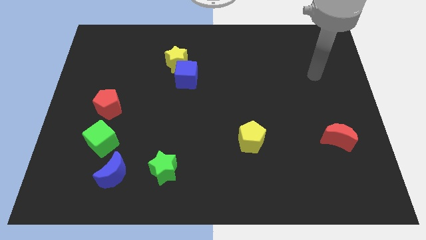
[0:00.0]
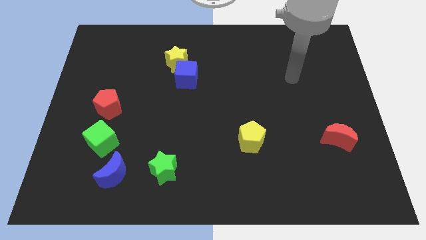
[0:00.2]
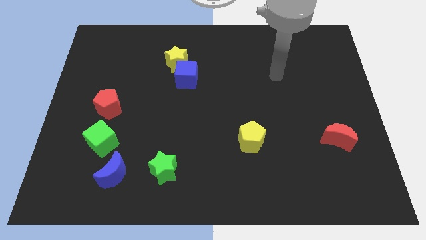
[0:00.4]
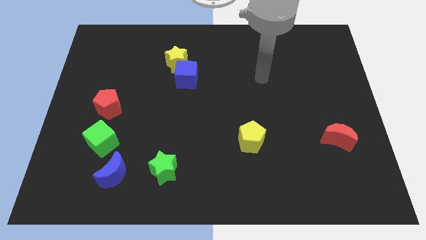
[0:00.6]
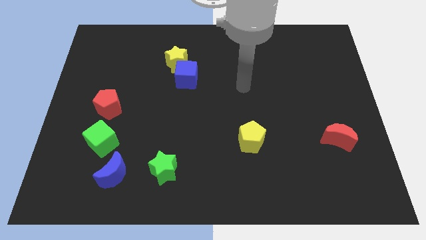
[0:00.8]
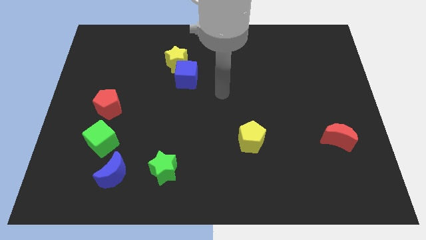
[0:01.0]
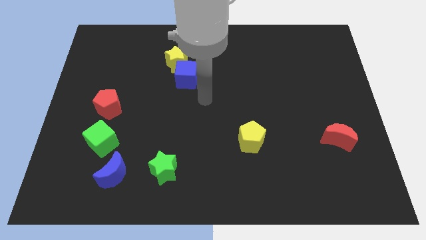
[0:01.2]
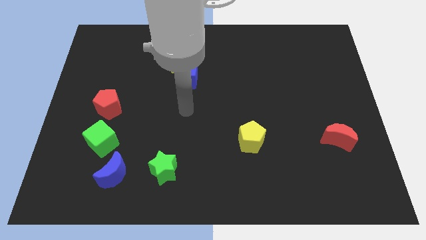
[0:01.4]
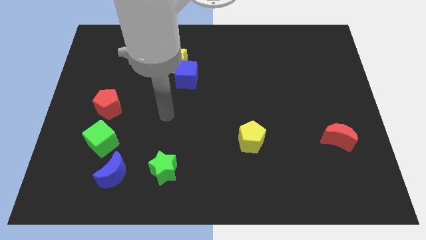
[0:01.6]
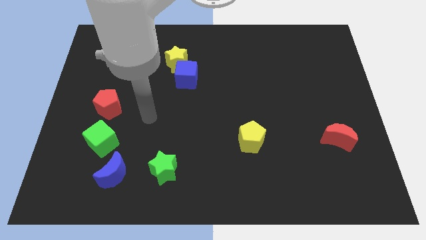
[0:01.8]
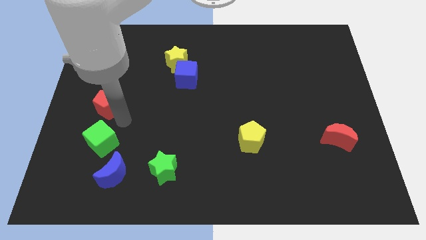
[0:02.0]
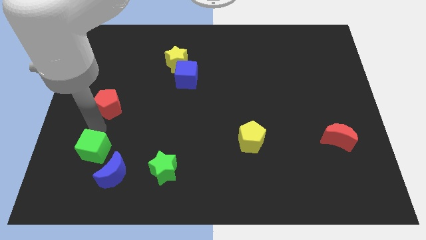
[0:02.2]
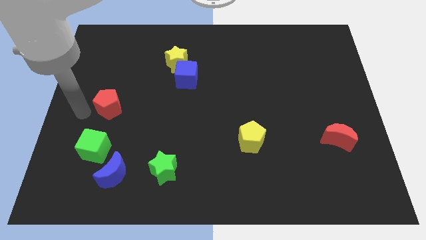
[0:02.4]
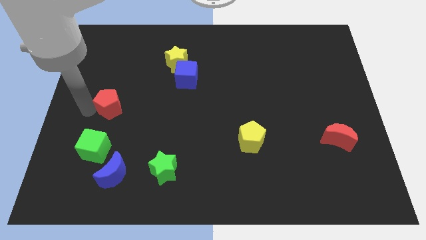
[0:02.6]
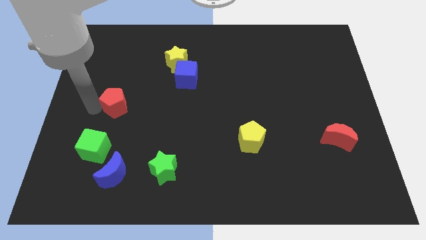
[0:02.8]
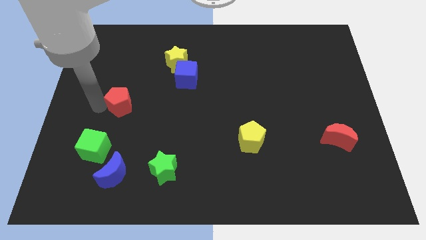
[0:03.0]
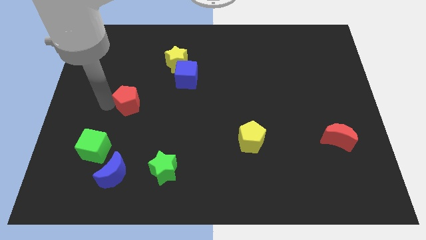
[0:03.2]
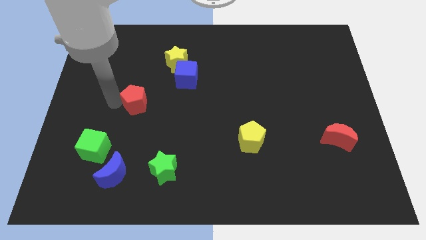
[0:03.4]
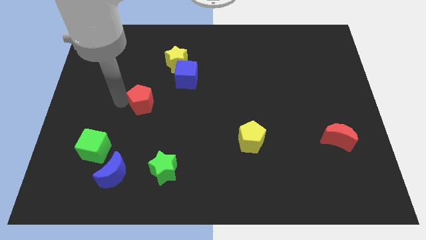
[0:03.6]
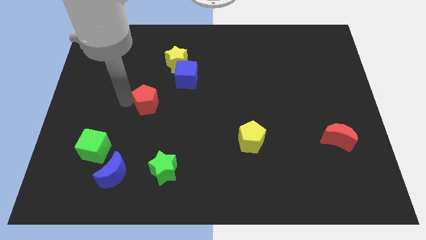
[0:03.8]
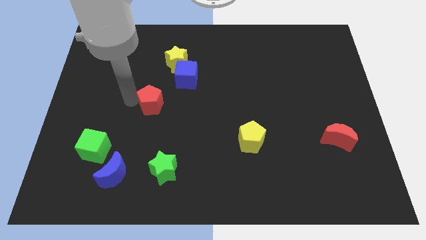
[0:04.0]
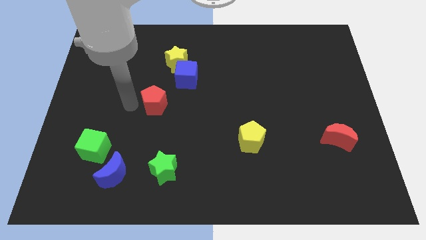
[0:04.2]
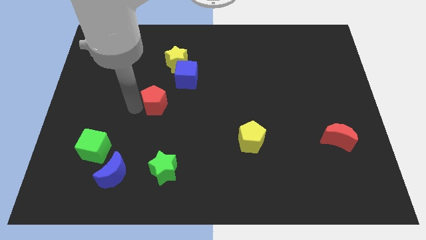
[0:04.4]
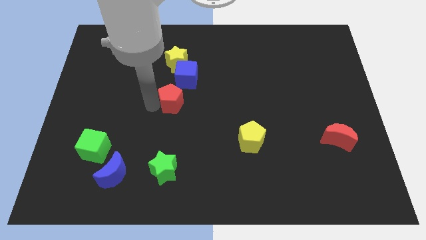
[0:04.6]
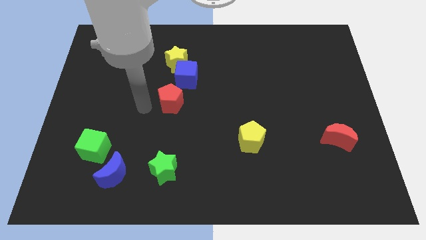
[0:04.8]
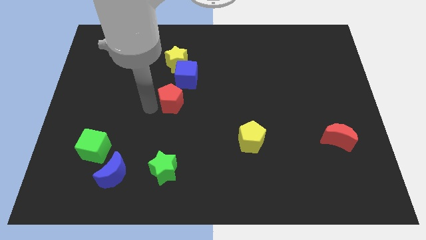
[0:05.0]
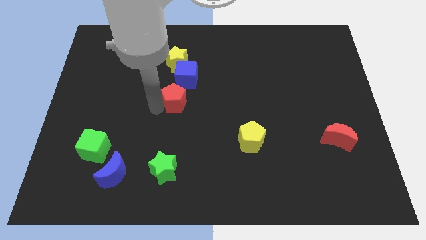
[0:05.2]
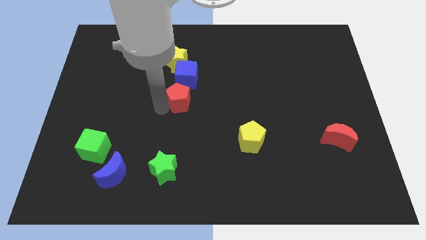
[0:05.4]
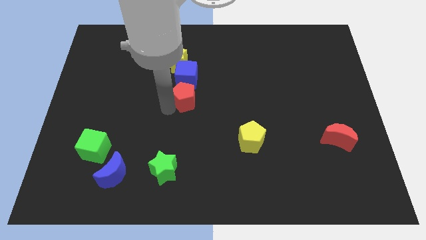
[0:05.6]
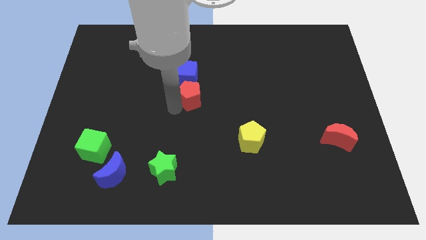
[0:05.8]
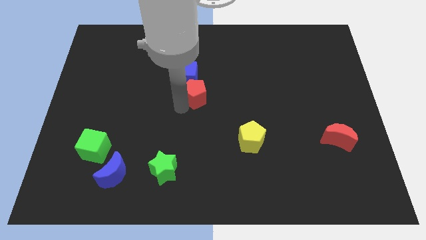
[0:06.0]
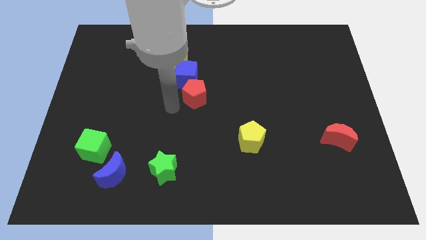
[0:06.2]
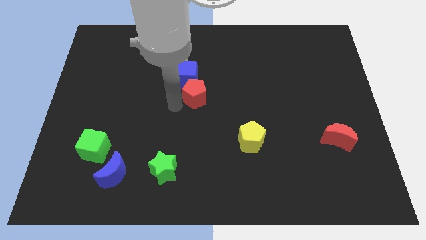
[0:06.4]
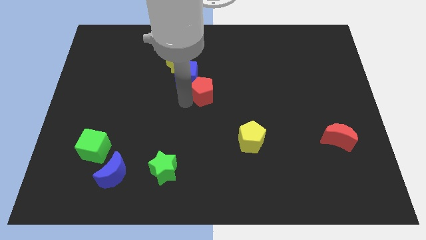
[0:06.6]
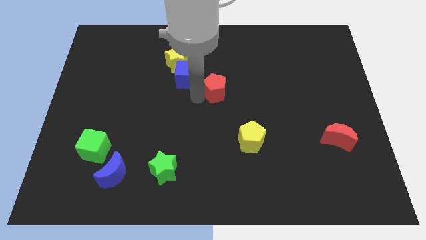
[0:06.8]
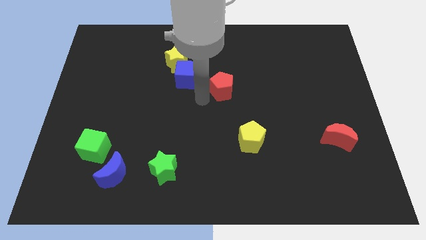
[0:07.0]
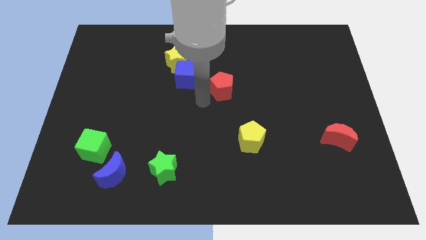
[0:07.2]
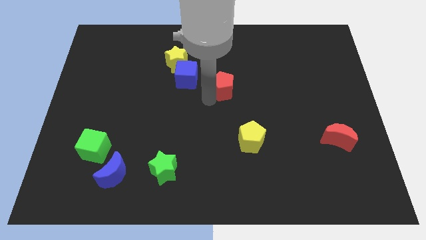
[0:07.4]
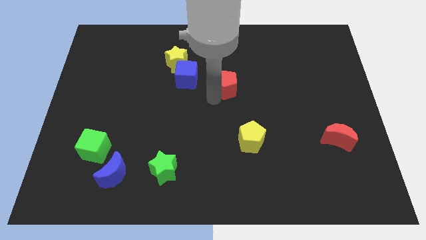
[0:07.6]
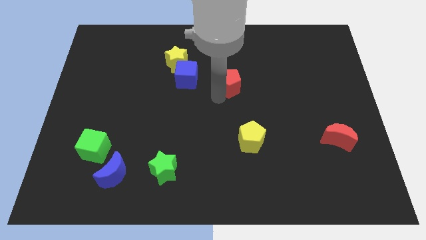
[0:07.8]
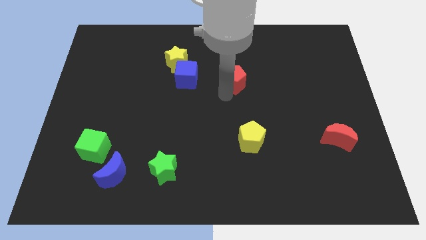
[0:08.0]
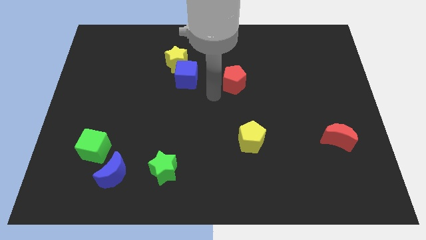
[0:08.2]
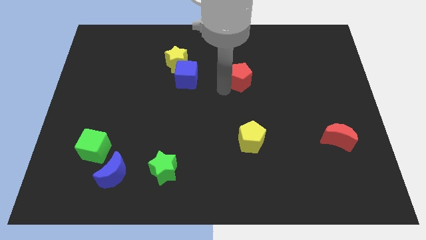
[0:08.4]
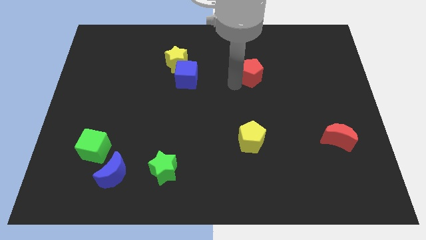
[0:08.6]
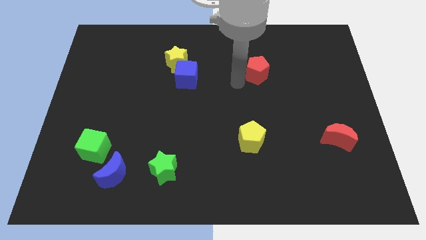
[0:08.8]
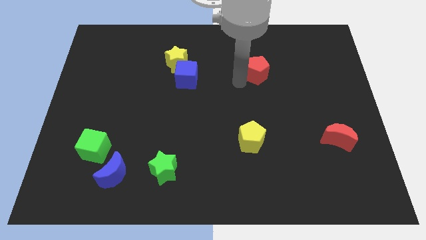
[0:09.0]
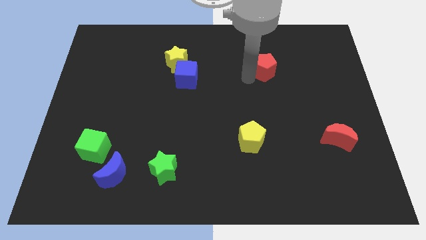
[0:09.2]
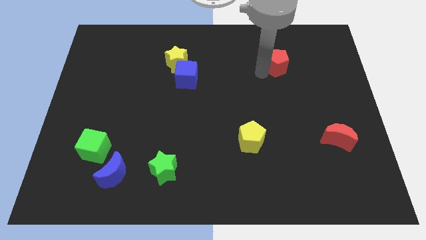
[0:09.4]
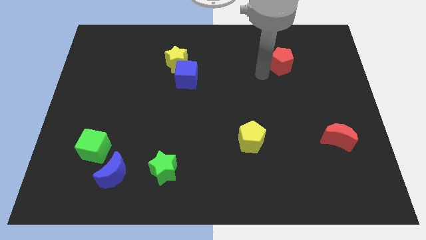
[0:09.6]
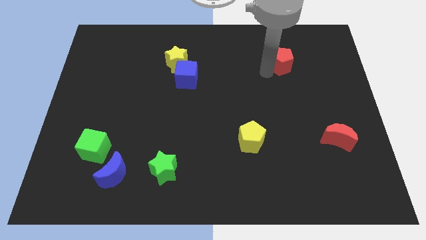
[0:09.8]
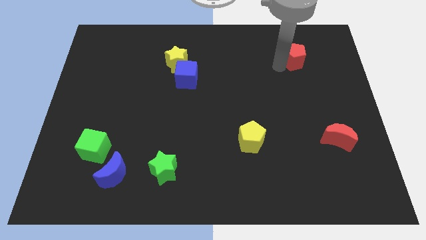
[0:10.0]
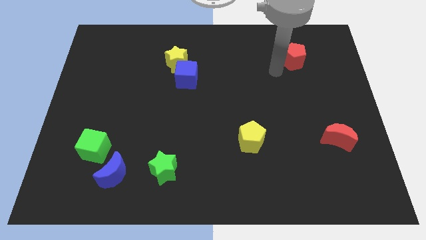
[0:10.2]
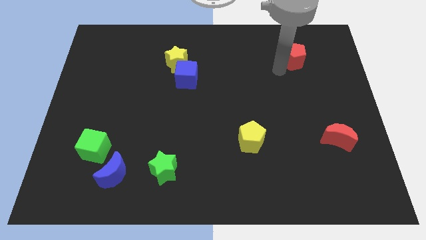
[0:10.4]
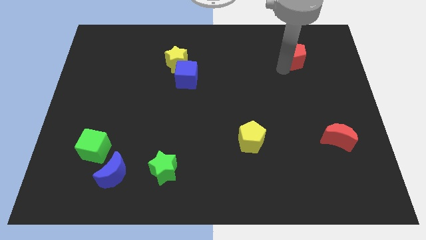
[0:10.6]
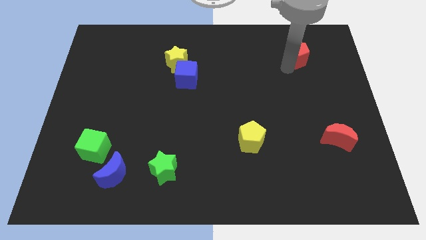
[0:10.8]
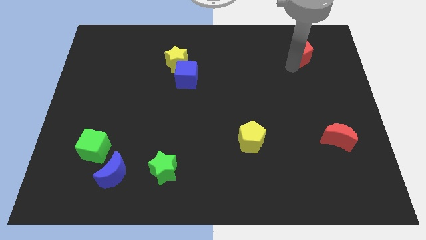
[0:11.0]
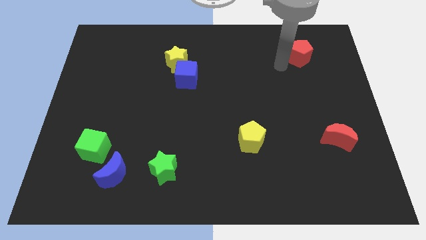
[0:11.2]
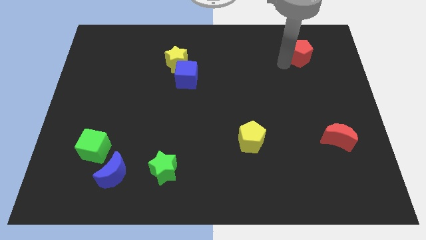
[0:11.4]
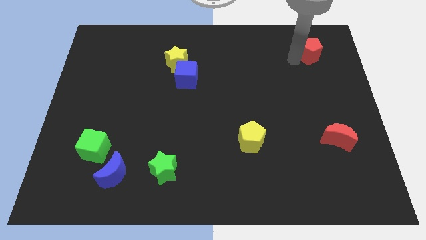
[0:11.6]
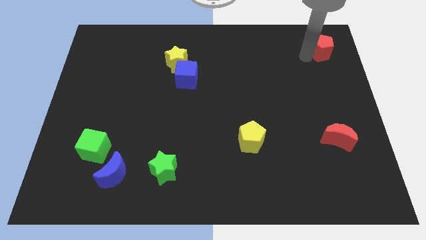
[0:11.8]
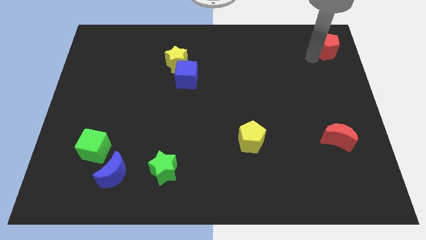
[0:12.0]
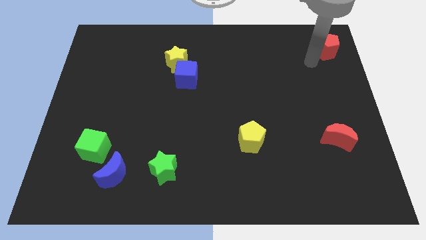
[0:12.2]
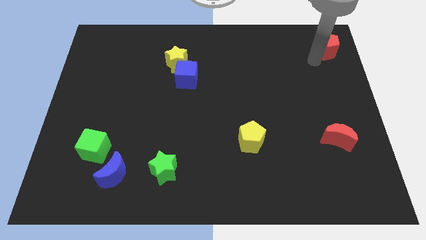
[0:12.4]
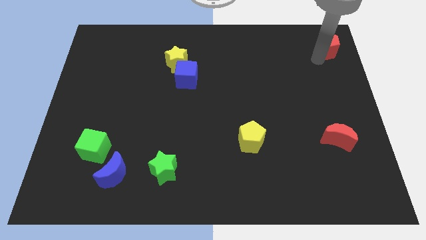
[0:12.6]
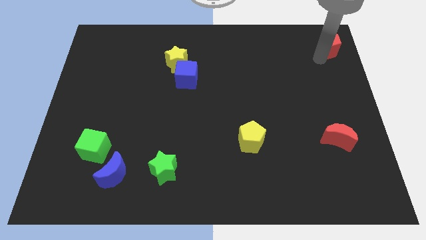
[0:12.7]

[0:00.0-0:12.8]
push the red pentagon to the top right corner
